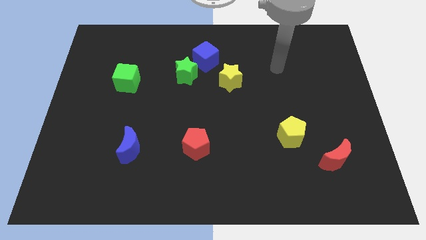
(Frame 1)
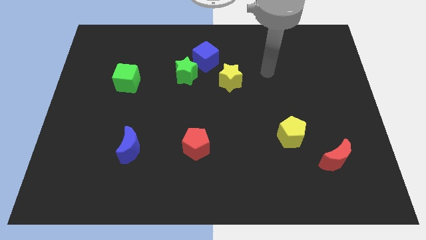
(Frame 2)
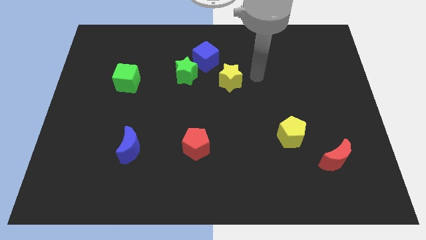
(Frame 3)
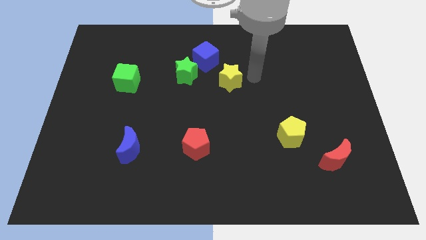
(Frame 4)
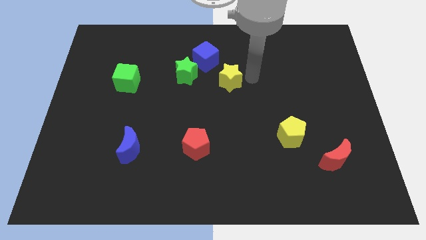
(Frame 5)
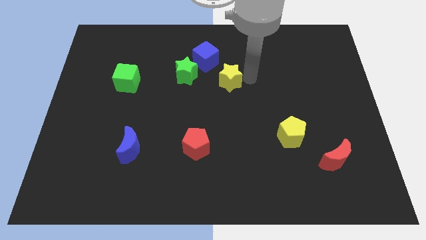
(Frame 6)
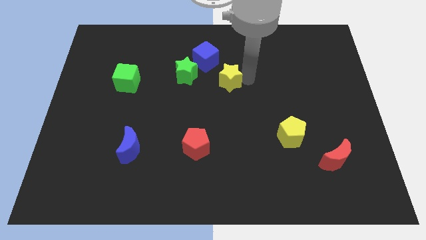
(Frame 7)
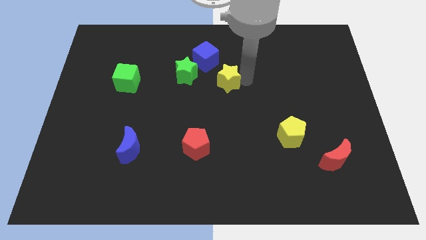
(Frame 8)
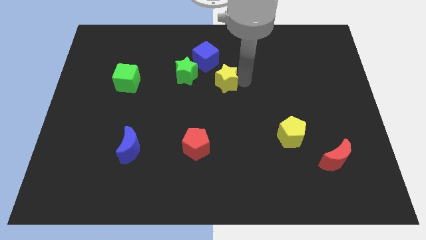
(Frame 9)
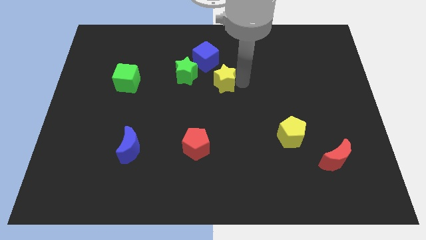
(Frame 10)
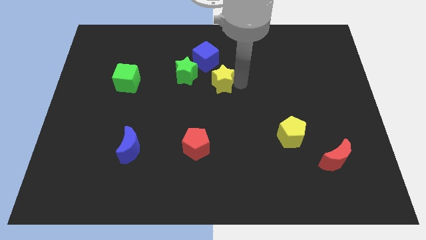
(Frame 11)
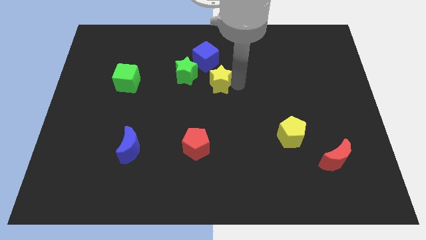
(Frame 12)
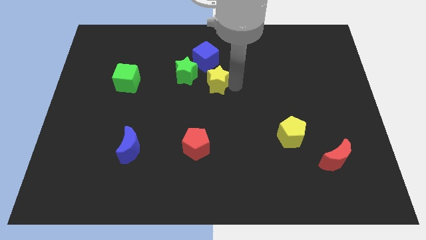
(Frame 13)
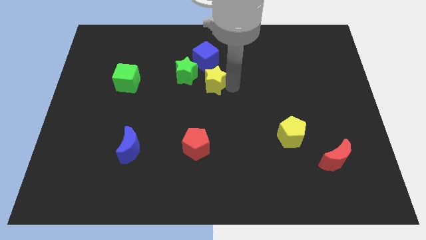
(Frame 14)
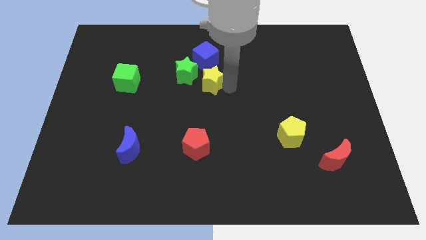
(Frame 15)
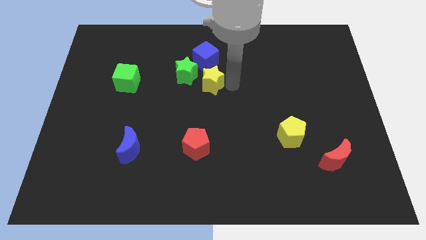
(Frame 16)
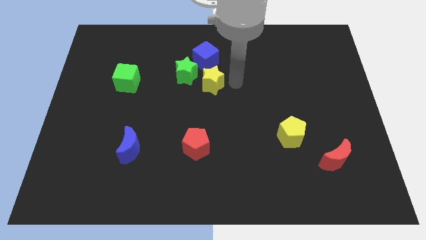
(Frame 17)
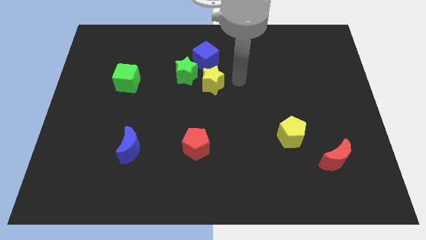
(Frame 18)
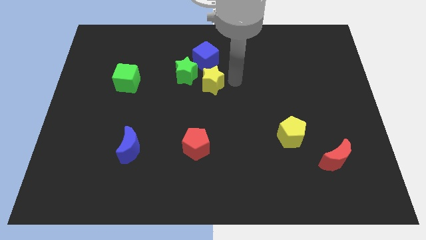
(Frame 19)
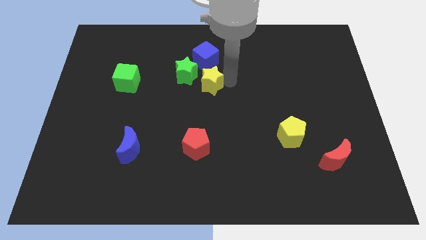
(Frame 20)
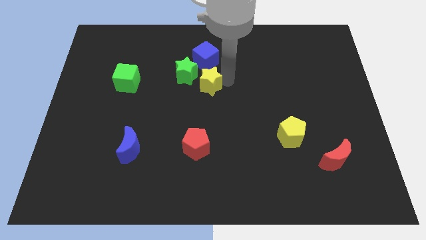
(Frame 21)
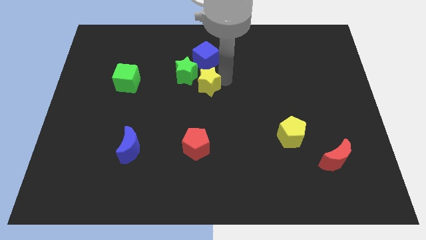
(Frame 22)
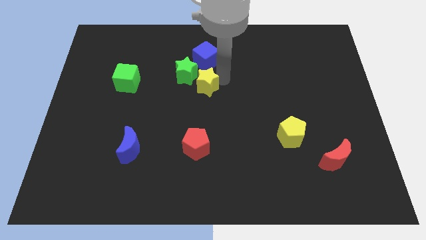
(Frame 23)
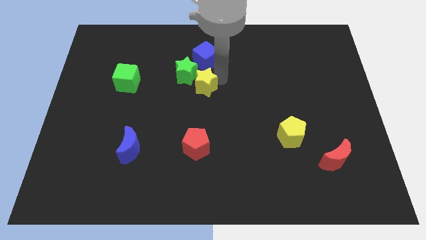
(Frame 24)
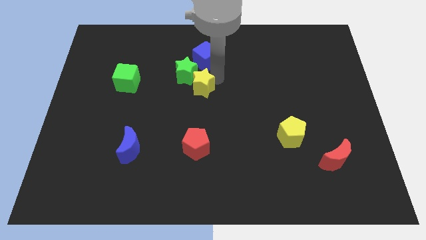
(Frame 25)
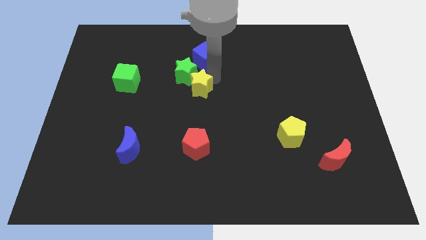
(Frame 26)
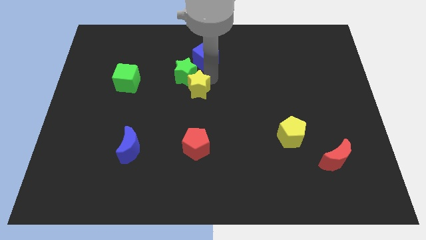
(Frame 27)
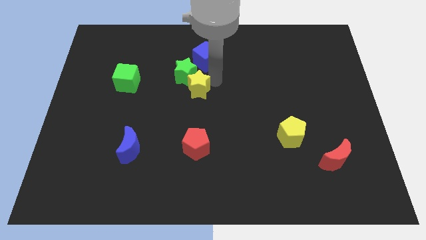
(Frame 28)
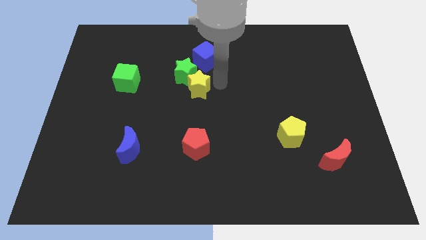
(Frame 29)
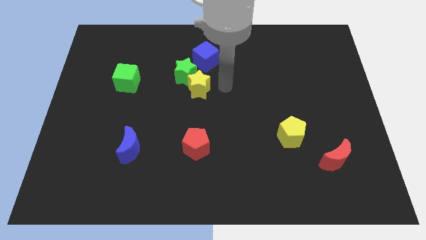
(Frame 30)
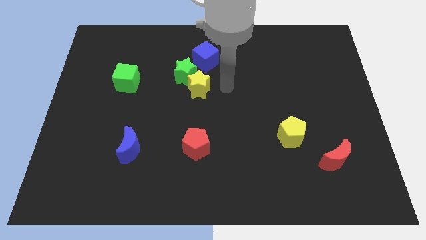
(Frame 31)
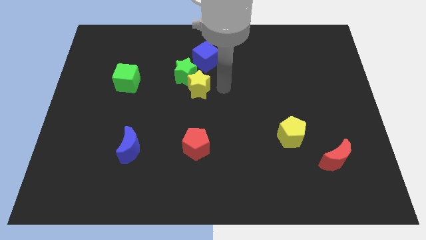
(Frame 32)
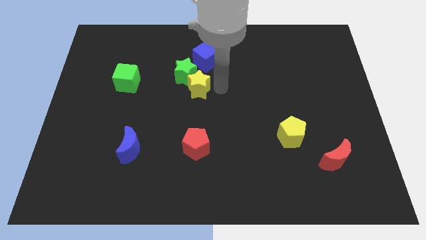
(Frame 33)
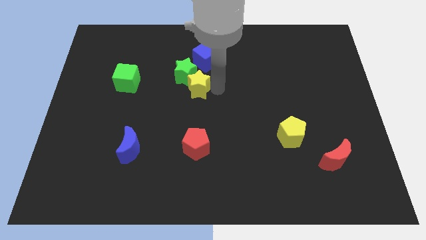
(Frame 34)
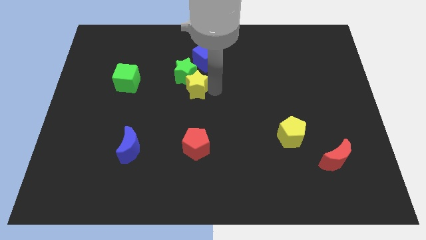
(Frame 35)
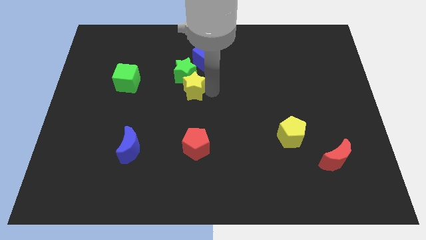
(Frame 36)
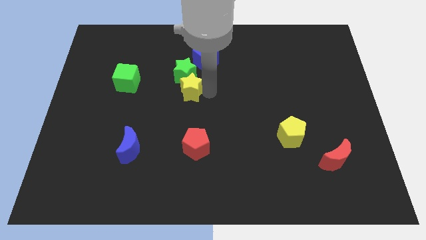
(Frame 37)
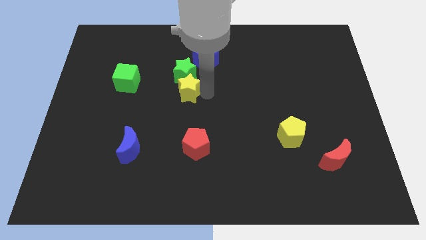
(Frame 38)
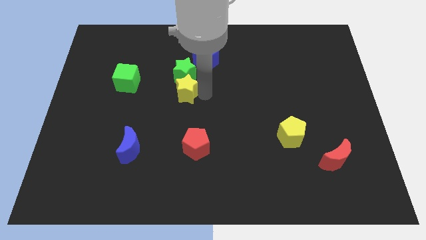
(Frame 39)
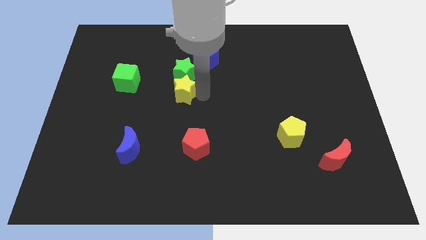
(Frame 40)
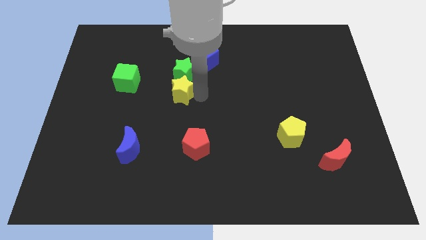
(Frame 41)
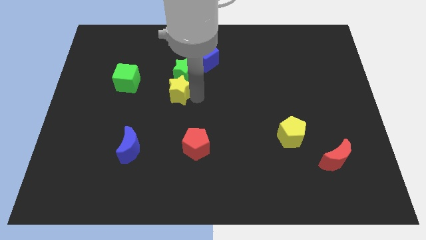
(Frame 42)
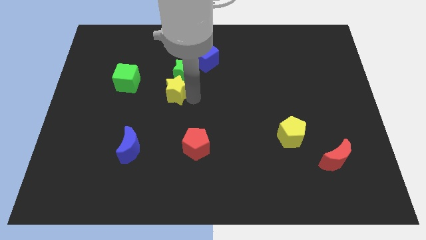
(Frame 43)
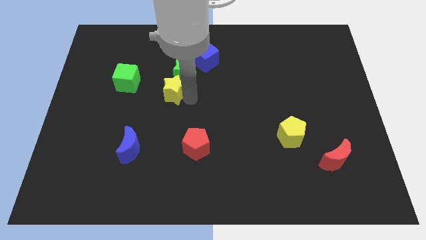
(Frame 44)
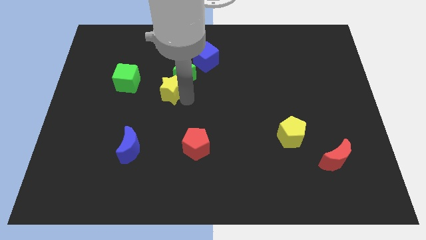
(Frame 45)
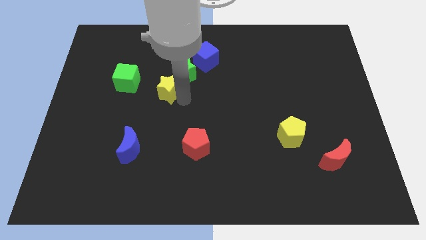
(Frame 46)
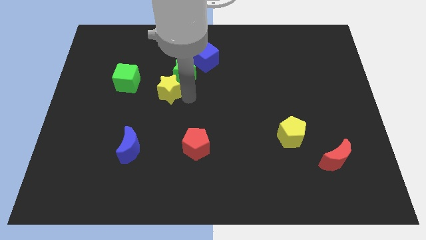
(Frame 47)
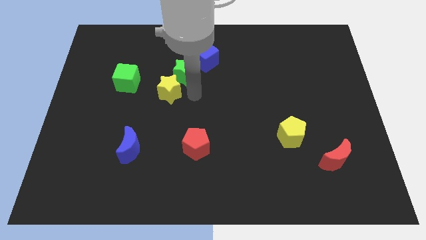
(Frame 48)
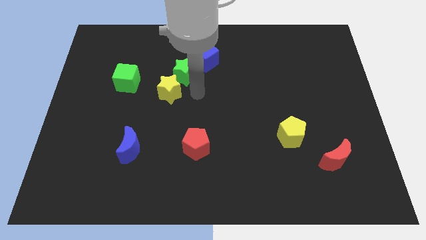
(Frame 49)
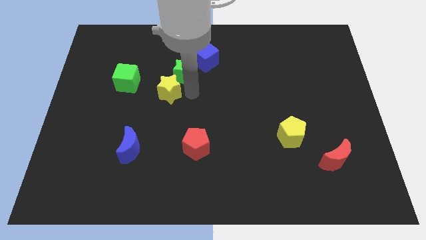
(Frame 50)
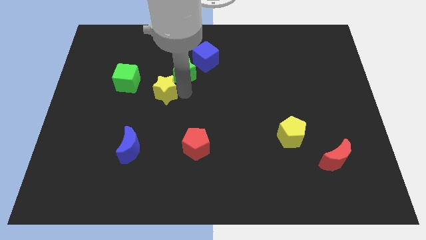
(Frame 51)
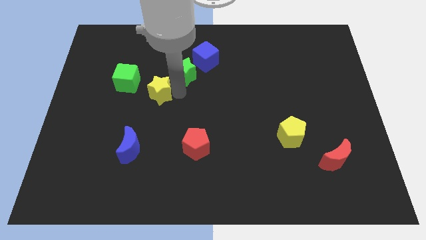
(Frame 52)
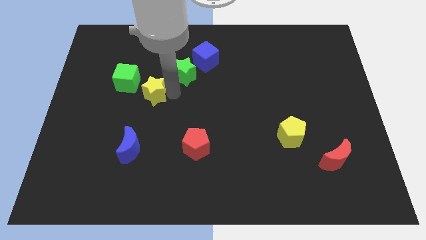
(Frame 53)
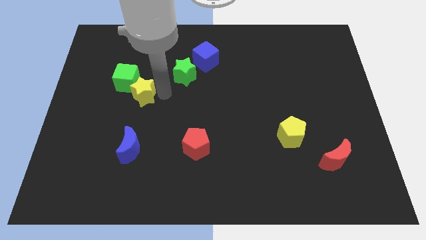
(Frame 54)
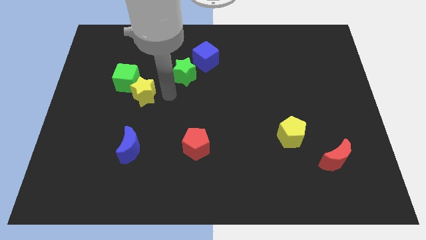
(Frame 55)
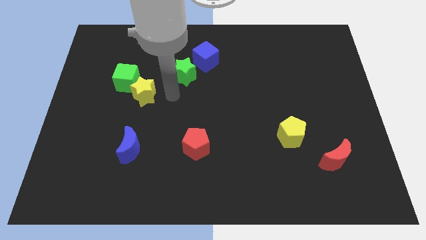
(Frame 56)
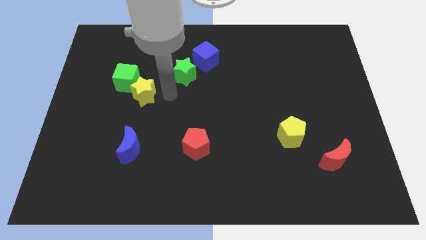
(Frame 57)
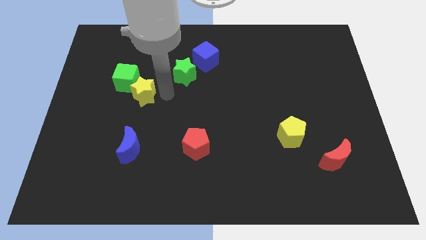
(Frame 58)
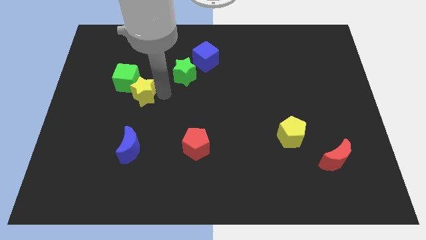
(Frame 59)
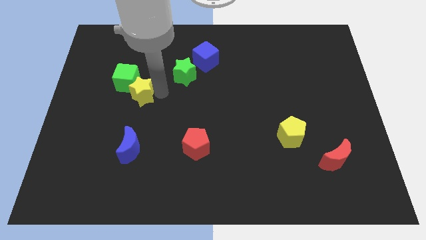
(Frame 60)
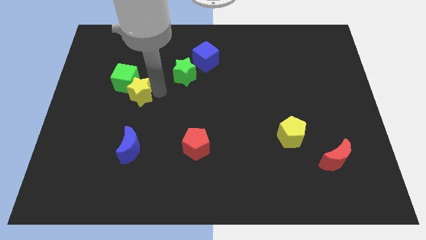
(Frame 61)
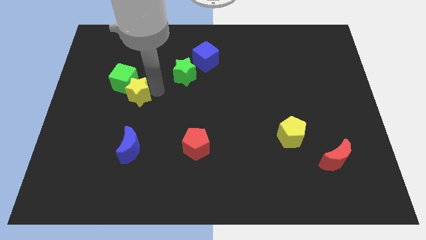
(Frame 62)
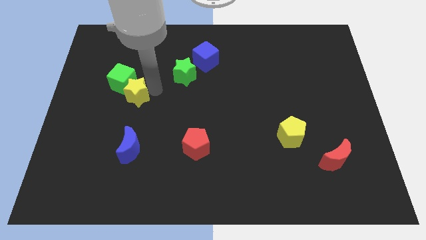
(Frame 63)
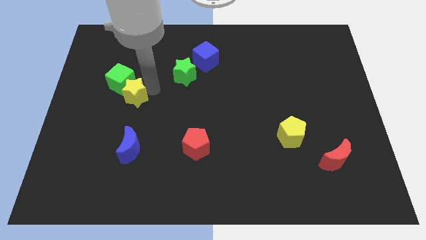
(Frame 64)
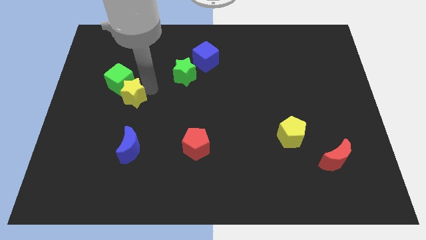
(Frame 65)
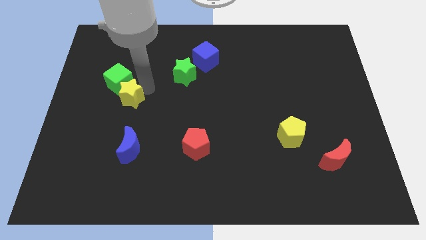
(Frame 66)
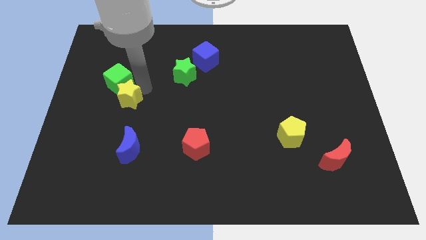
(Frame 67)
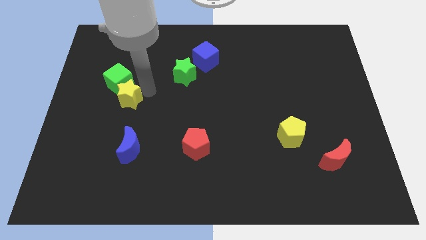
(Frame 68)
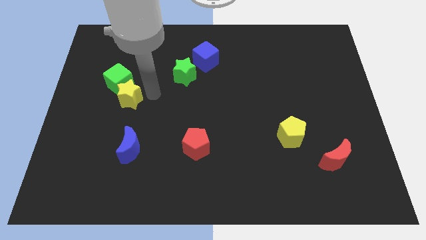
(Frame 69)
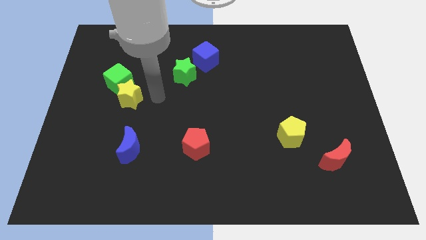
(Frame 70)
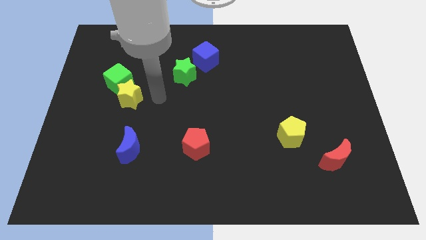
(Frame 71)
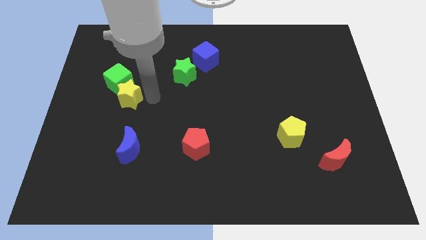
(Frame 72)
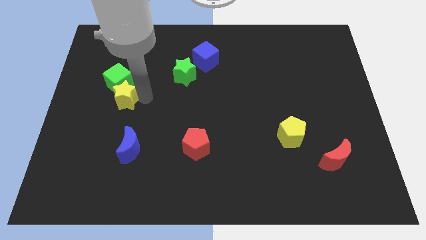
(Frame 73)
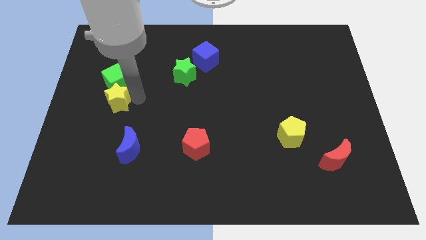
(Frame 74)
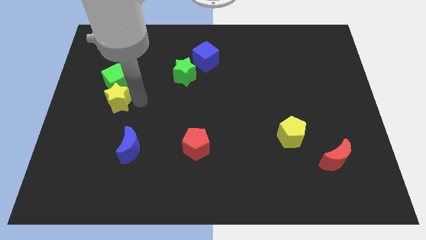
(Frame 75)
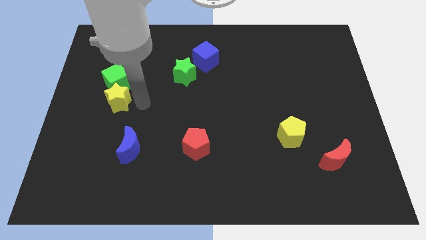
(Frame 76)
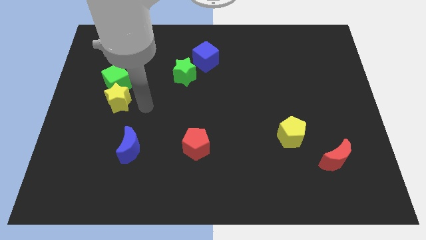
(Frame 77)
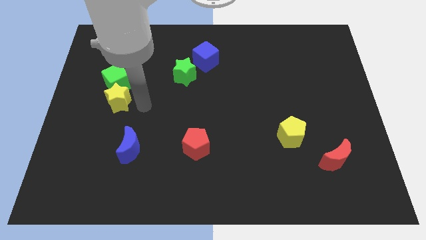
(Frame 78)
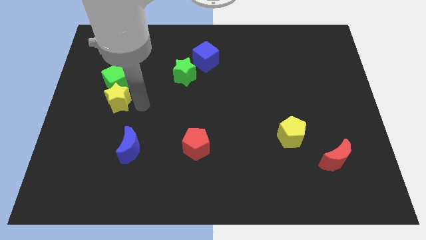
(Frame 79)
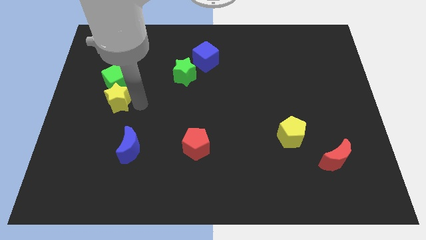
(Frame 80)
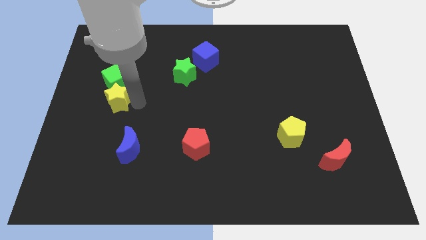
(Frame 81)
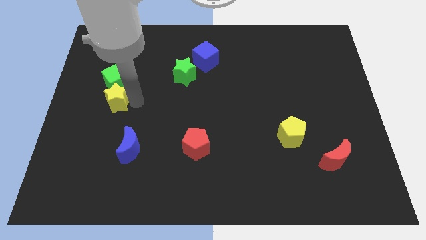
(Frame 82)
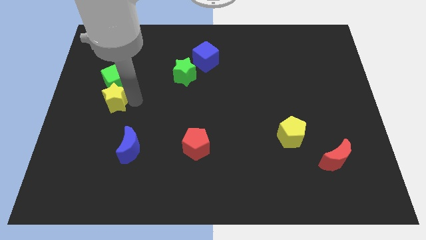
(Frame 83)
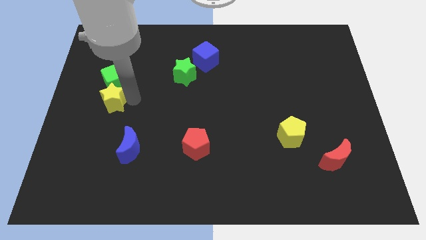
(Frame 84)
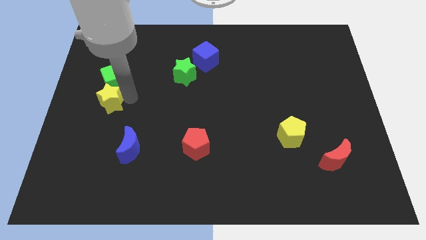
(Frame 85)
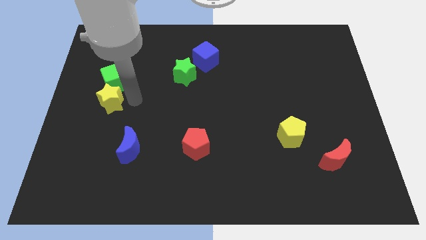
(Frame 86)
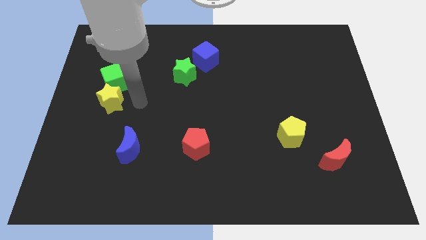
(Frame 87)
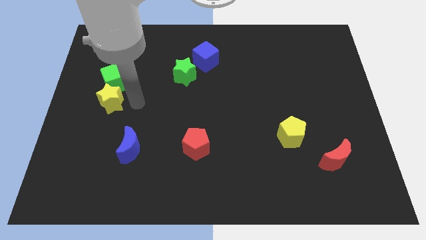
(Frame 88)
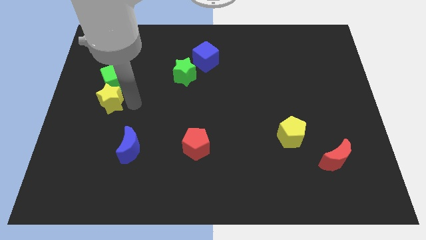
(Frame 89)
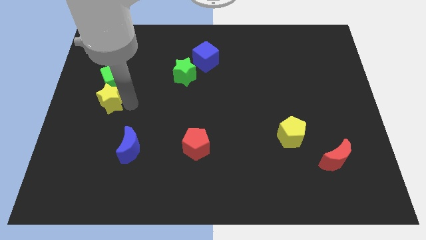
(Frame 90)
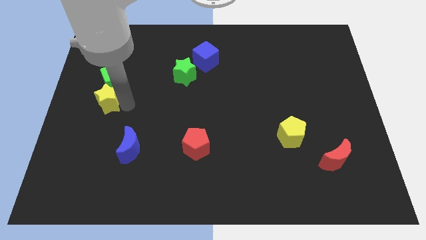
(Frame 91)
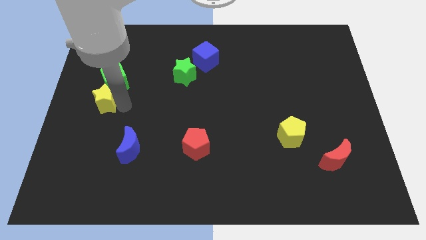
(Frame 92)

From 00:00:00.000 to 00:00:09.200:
move the yellow star to the left side of the board
